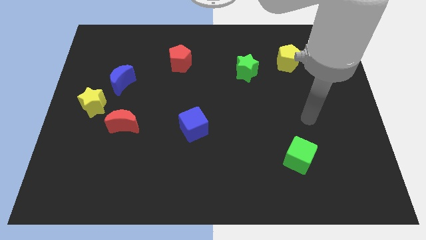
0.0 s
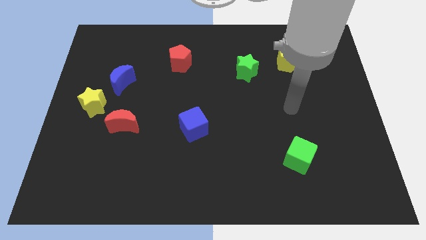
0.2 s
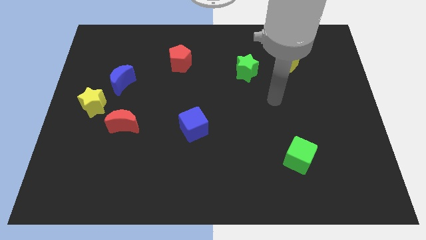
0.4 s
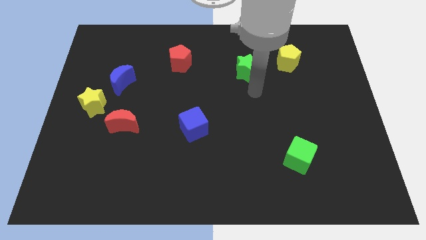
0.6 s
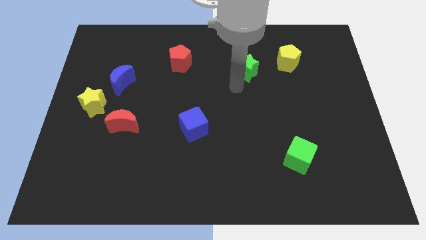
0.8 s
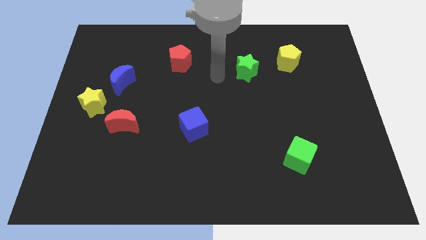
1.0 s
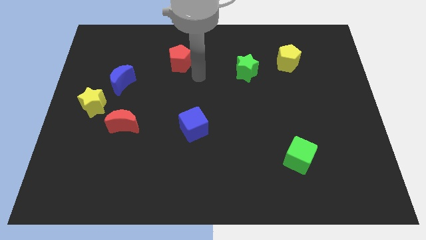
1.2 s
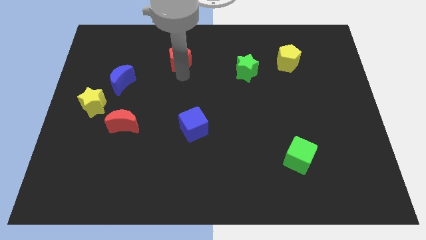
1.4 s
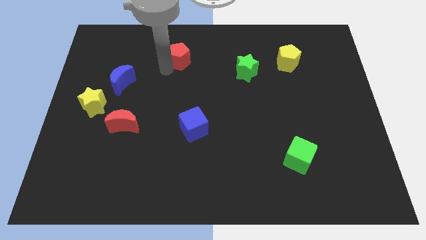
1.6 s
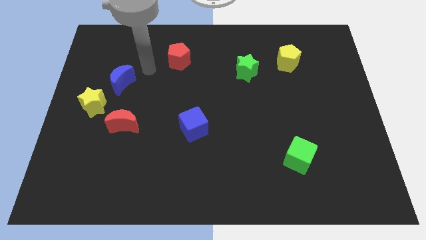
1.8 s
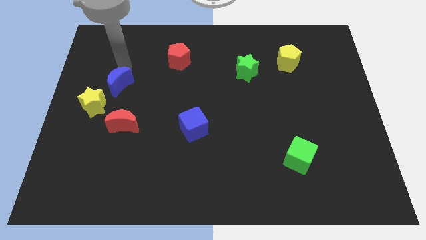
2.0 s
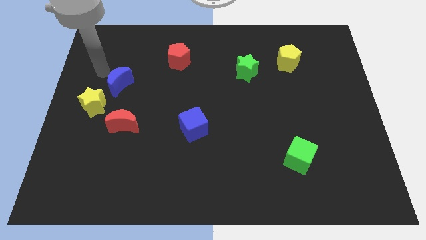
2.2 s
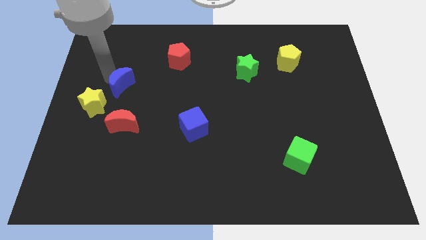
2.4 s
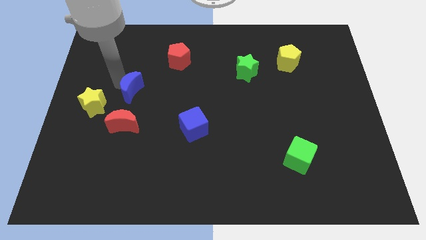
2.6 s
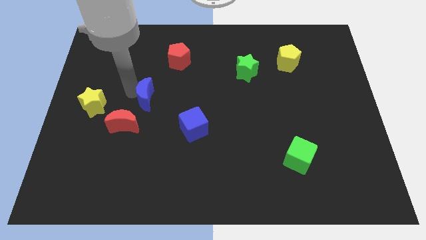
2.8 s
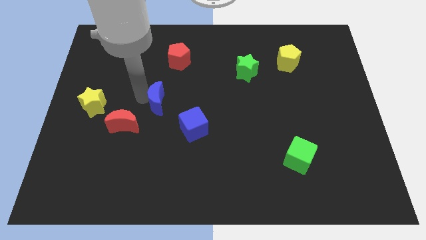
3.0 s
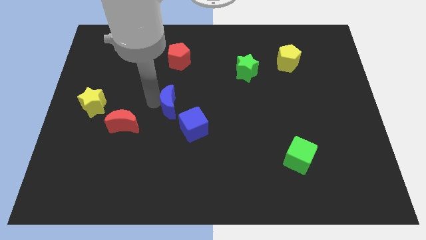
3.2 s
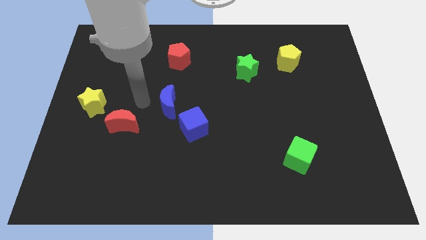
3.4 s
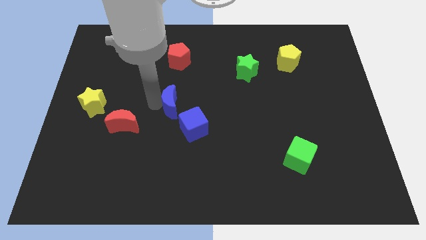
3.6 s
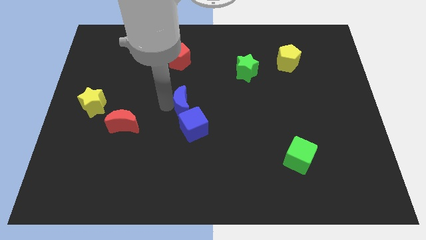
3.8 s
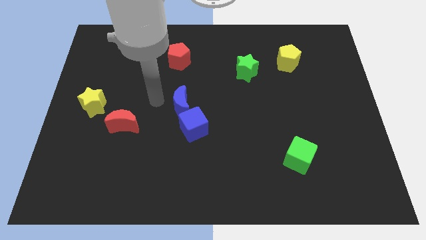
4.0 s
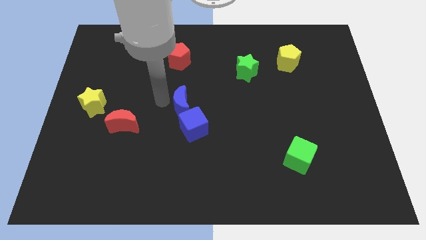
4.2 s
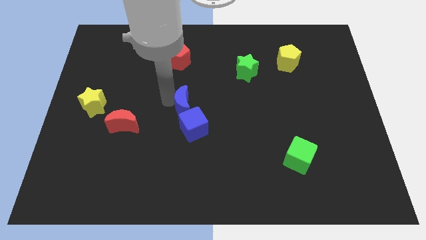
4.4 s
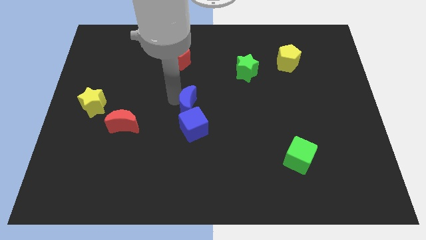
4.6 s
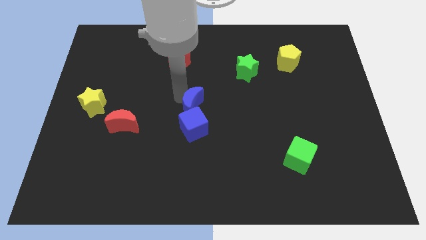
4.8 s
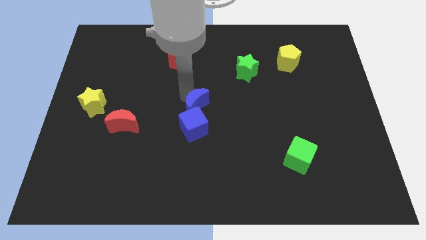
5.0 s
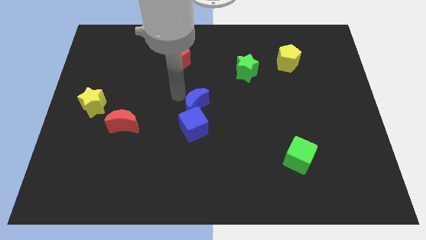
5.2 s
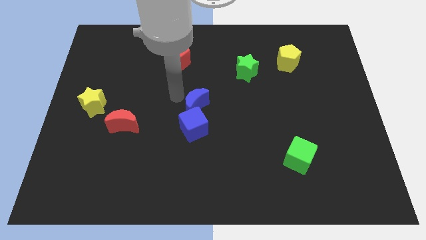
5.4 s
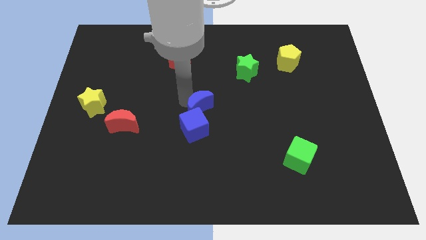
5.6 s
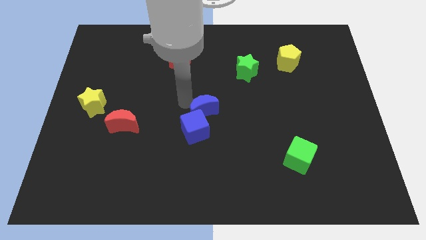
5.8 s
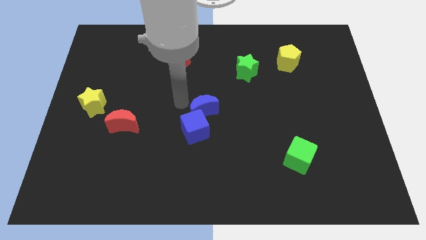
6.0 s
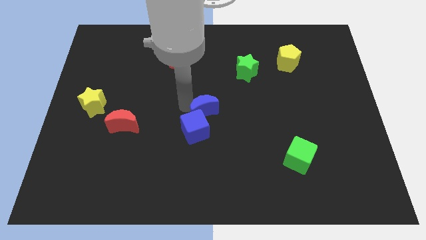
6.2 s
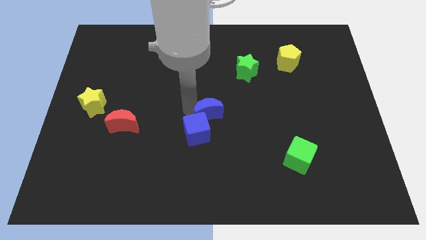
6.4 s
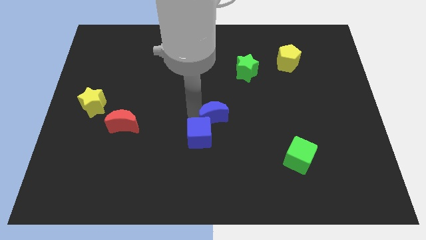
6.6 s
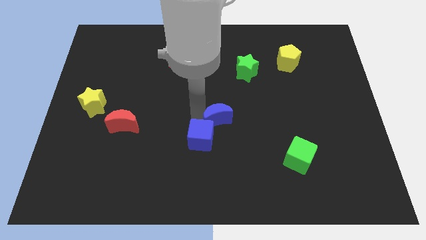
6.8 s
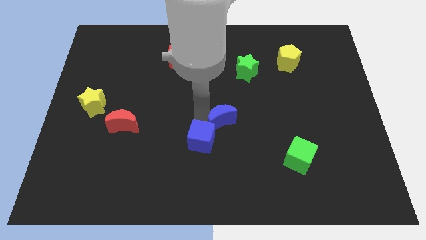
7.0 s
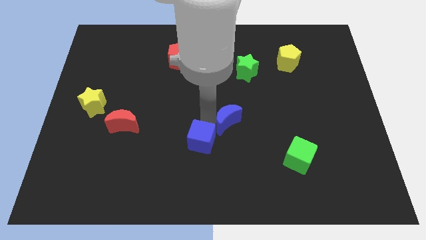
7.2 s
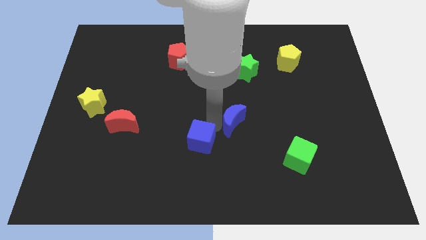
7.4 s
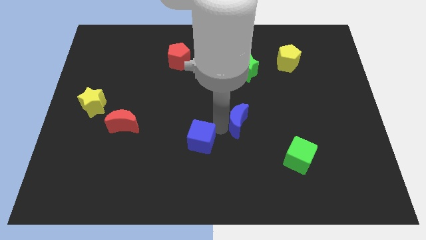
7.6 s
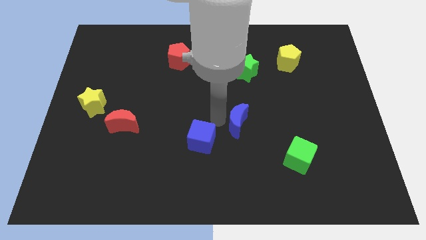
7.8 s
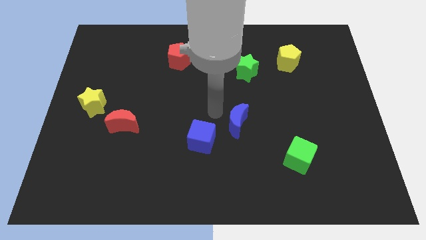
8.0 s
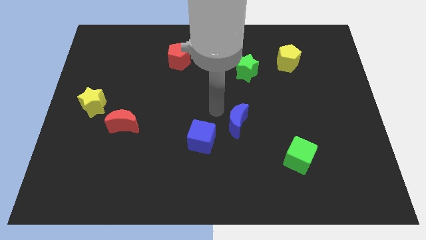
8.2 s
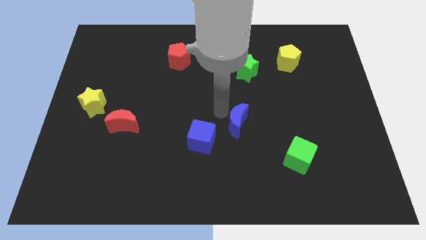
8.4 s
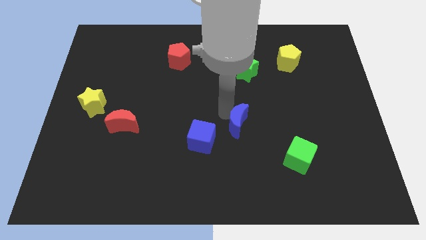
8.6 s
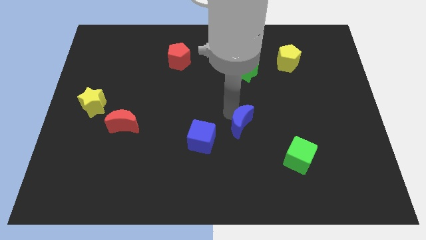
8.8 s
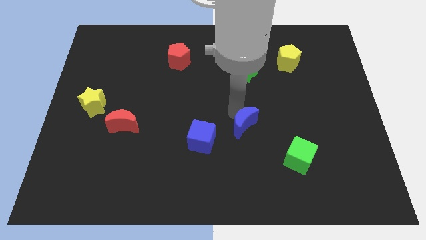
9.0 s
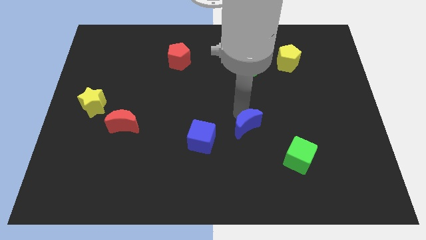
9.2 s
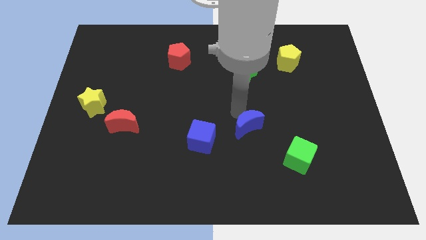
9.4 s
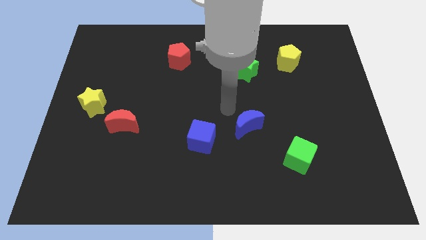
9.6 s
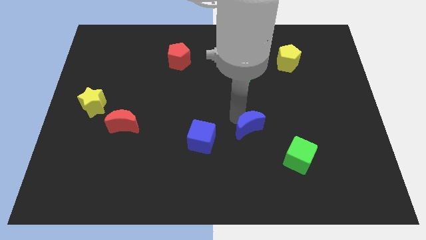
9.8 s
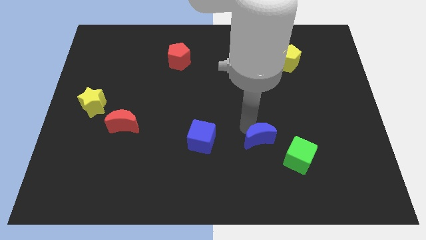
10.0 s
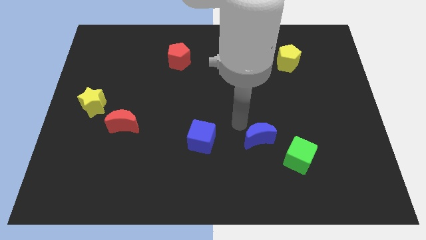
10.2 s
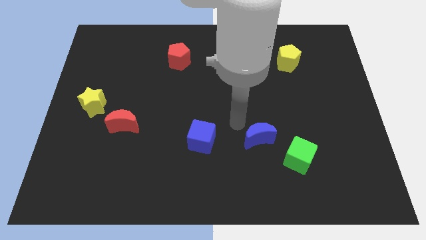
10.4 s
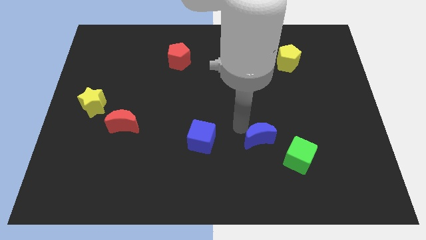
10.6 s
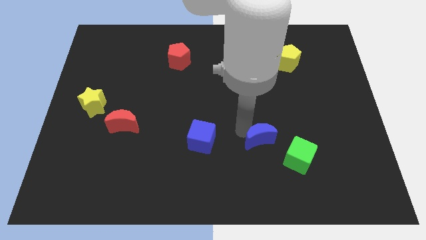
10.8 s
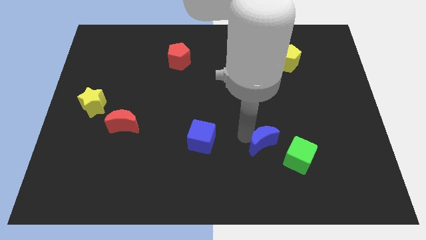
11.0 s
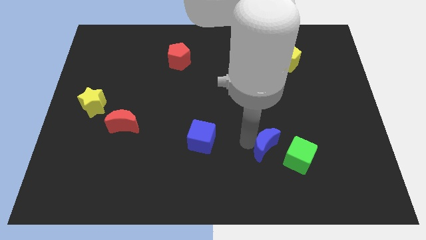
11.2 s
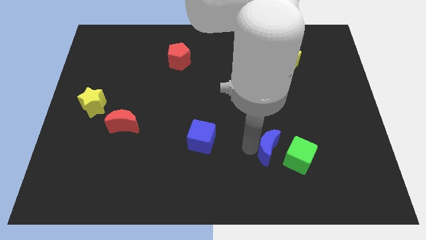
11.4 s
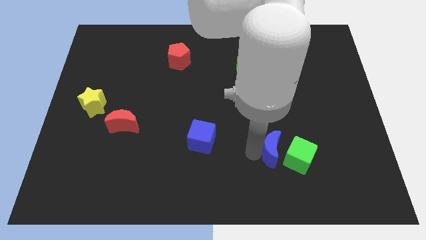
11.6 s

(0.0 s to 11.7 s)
push the blue moon towards the green cube

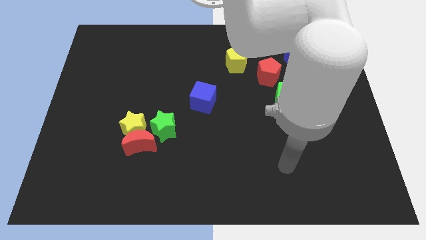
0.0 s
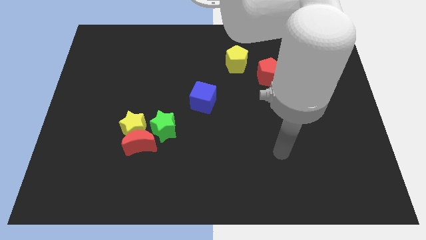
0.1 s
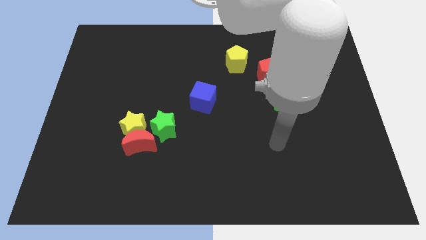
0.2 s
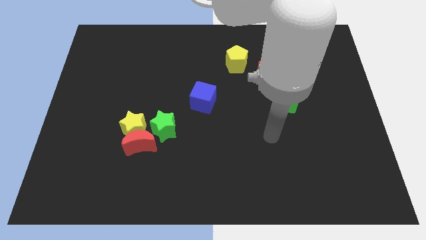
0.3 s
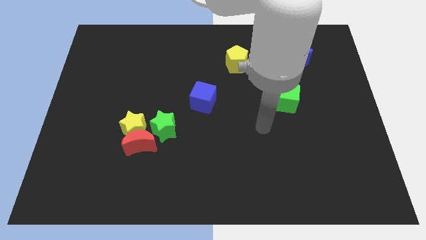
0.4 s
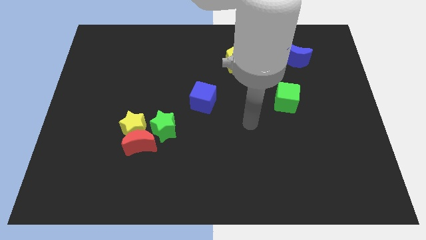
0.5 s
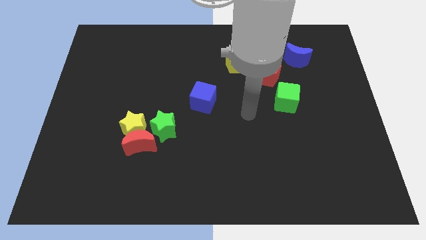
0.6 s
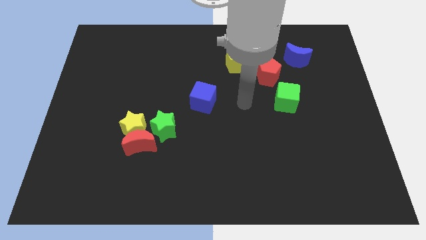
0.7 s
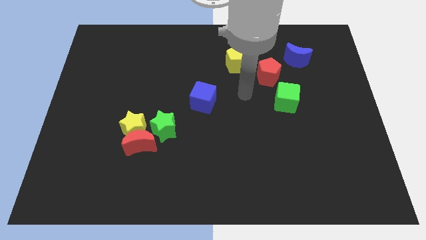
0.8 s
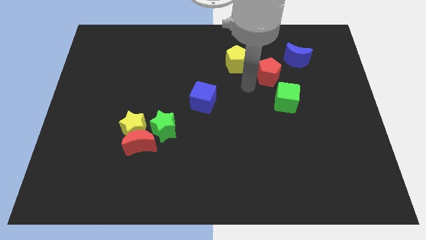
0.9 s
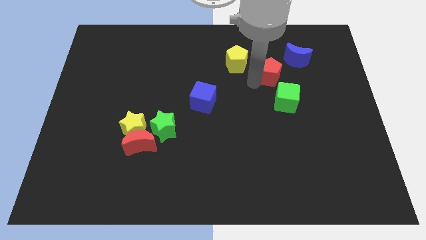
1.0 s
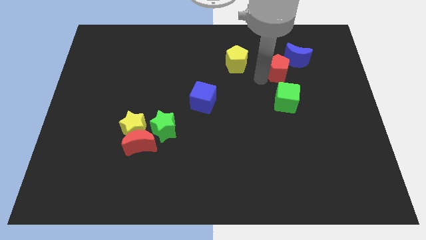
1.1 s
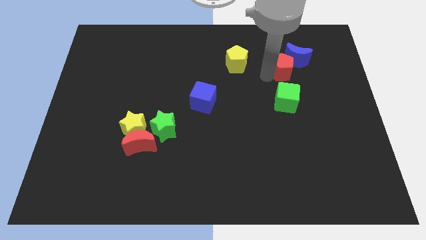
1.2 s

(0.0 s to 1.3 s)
move the red pentagon to the blue moon

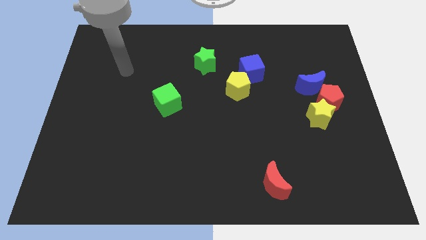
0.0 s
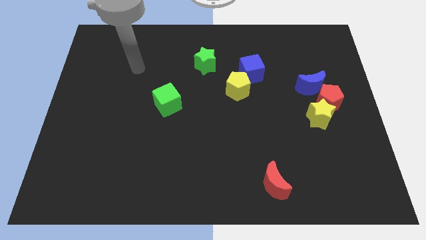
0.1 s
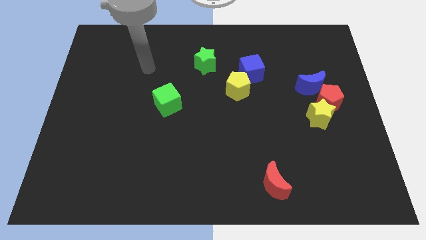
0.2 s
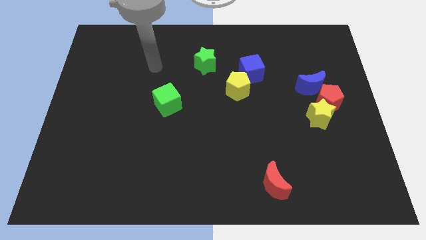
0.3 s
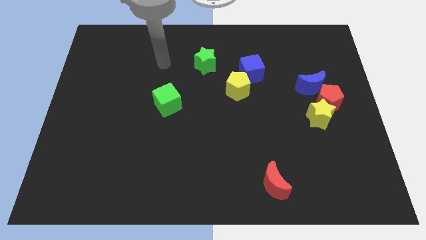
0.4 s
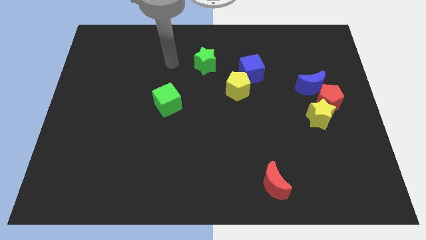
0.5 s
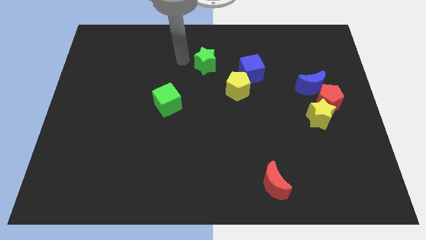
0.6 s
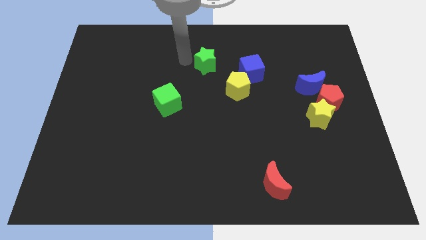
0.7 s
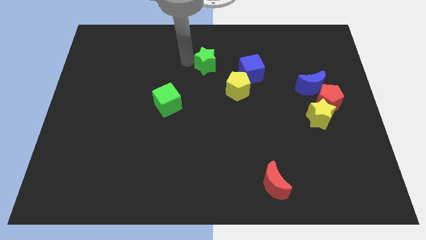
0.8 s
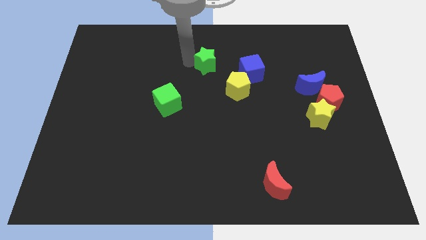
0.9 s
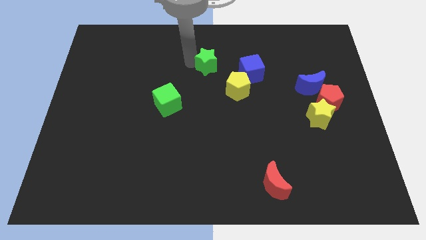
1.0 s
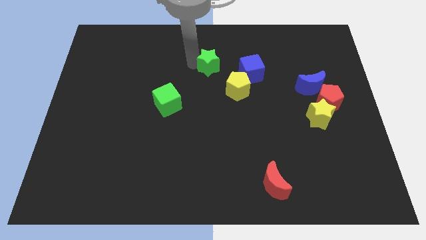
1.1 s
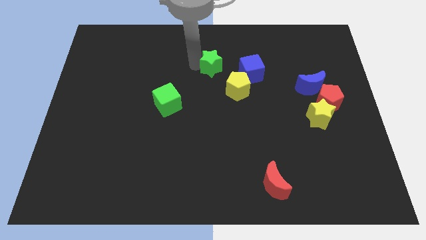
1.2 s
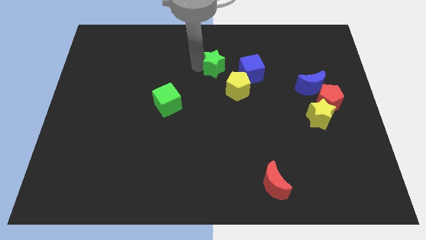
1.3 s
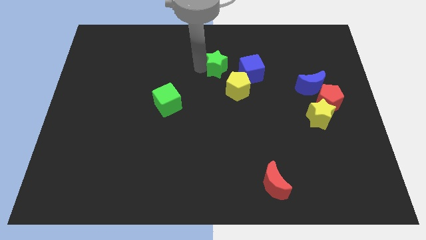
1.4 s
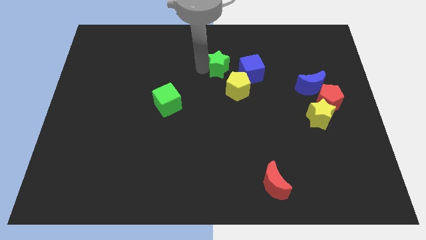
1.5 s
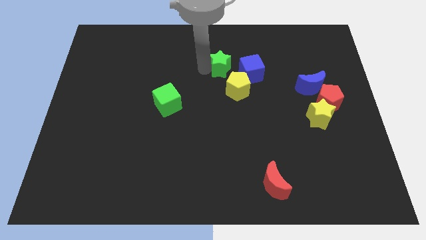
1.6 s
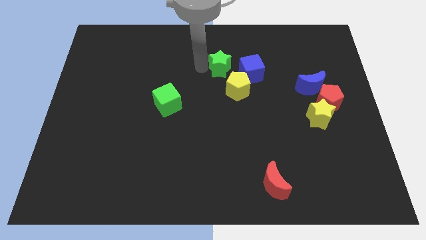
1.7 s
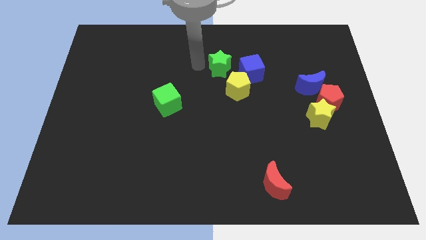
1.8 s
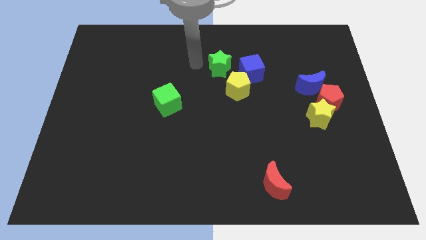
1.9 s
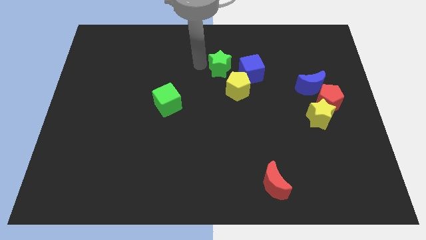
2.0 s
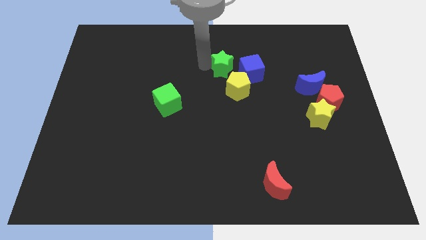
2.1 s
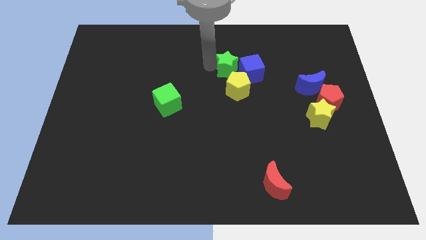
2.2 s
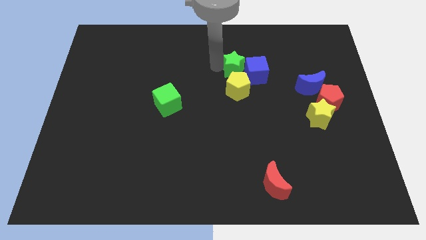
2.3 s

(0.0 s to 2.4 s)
move the green star next to the blue cube
